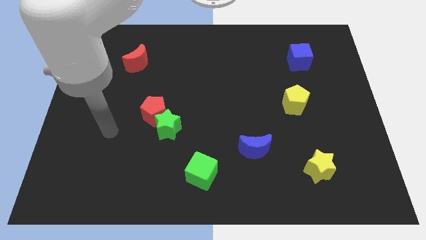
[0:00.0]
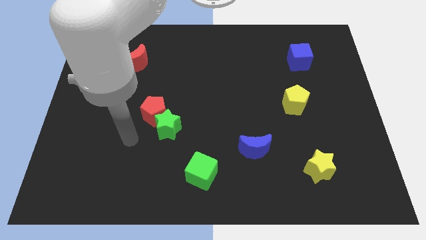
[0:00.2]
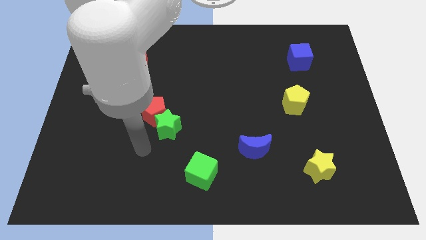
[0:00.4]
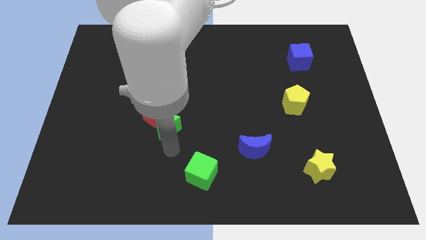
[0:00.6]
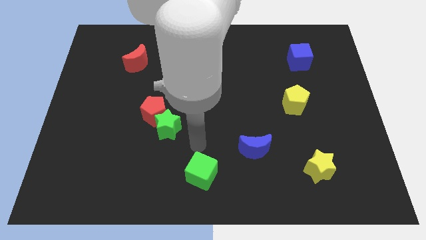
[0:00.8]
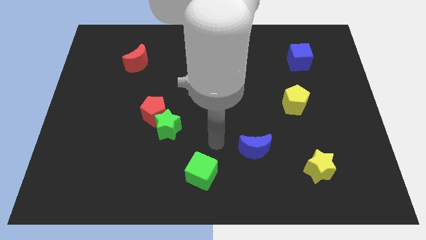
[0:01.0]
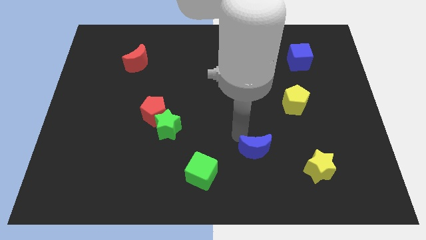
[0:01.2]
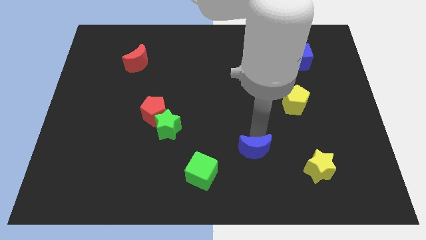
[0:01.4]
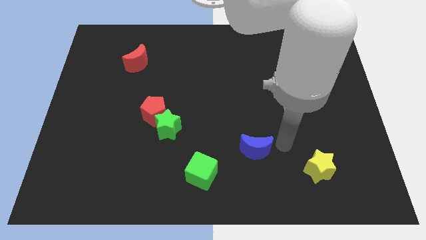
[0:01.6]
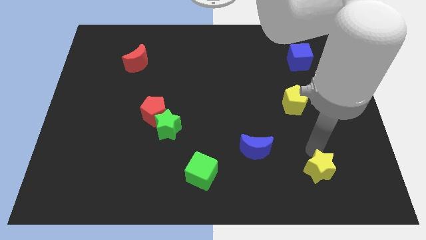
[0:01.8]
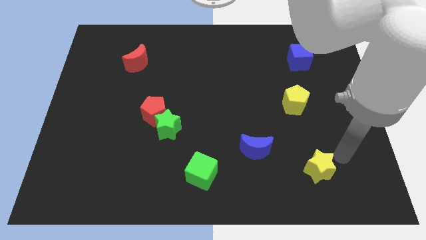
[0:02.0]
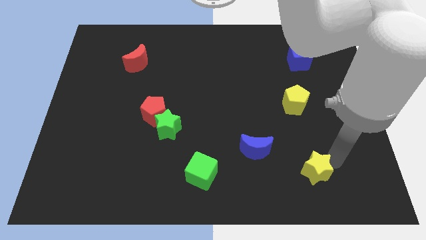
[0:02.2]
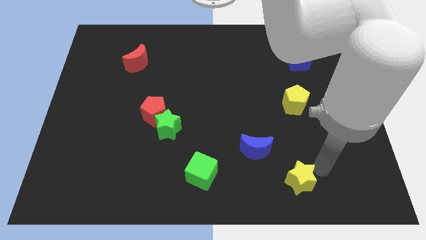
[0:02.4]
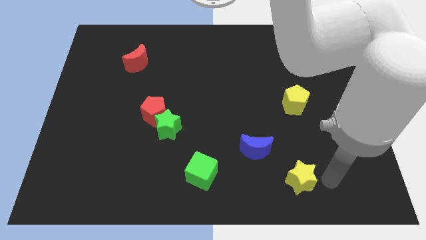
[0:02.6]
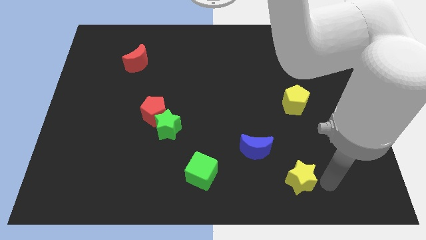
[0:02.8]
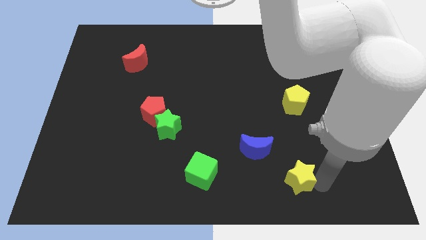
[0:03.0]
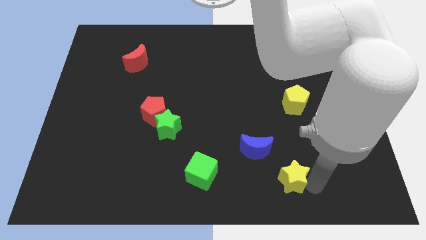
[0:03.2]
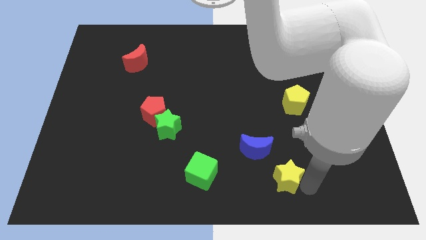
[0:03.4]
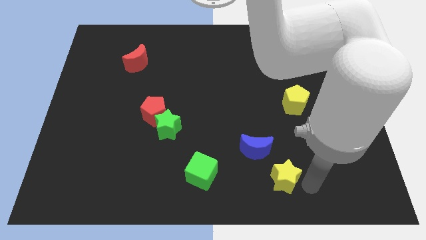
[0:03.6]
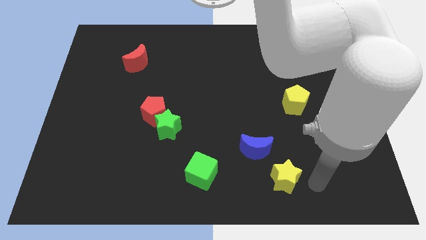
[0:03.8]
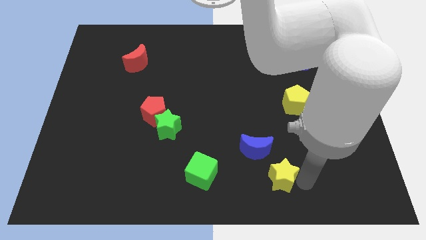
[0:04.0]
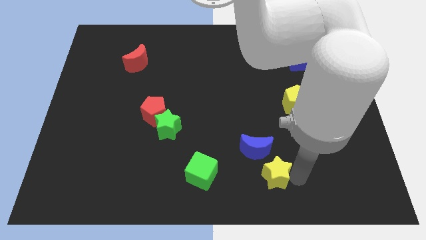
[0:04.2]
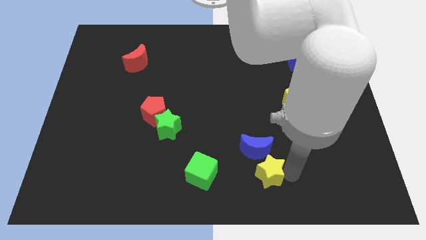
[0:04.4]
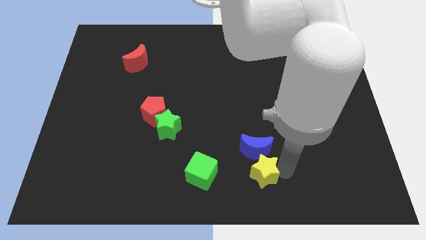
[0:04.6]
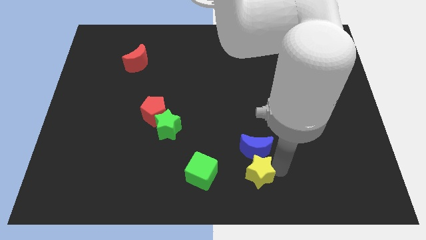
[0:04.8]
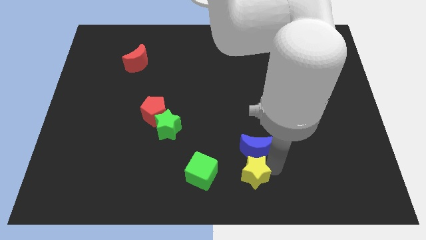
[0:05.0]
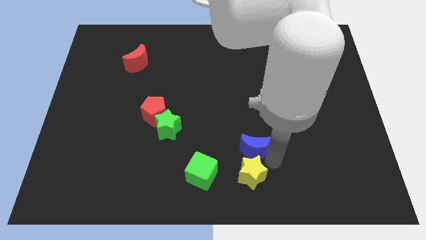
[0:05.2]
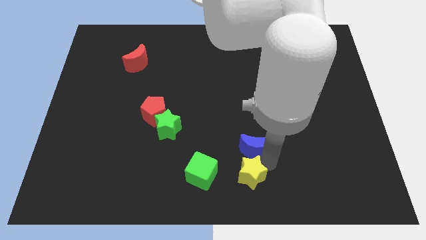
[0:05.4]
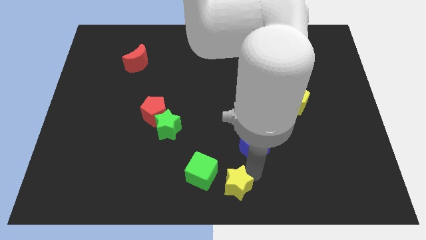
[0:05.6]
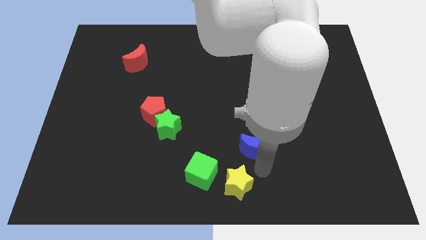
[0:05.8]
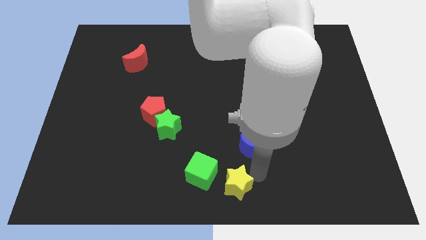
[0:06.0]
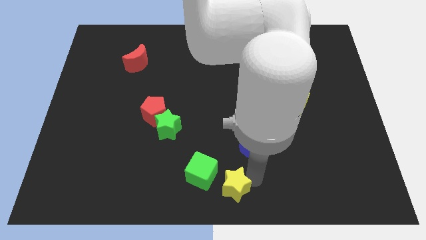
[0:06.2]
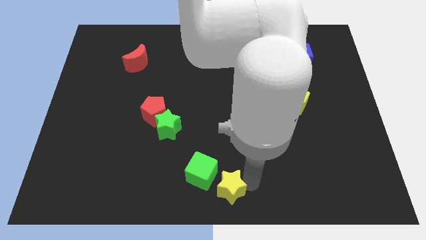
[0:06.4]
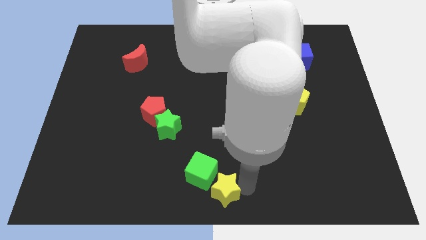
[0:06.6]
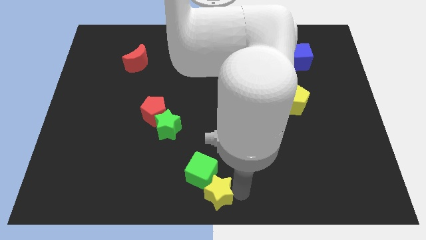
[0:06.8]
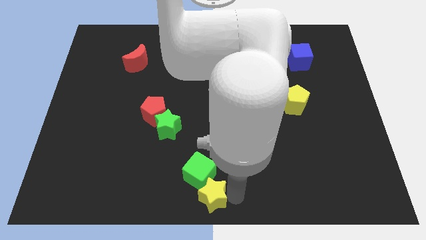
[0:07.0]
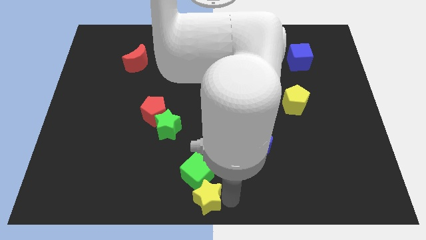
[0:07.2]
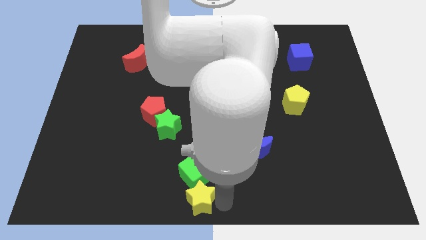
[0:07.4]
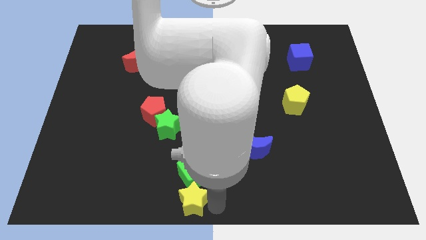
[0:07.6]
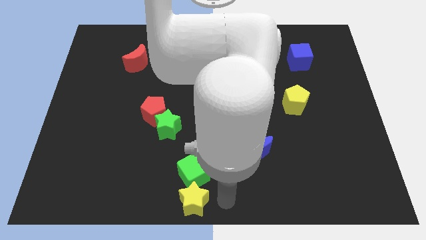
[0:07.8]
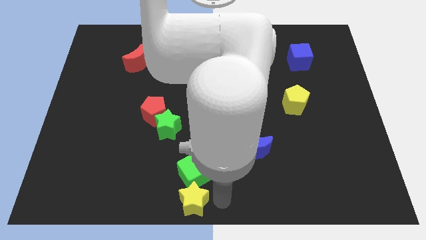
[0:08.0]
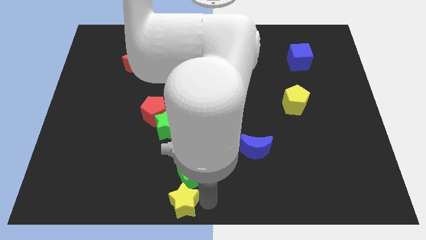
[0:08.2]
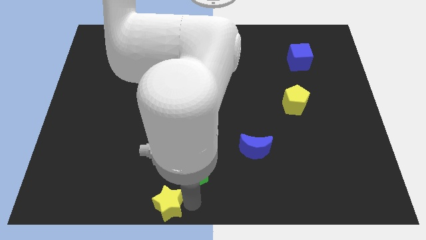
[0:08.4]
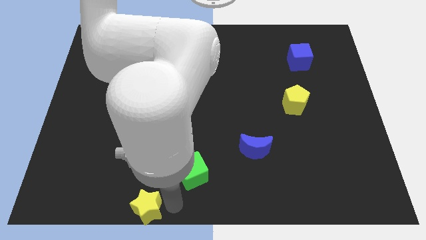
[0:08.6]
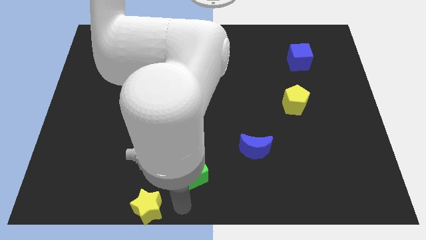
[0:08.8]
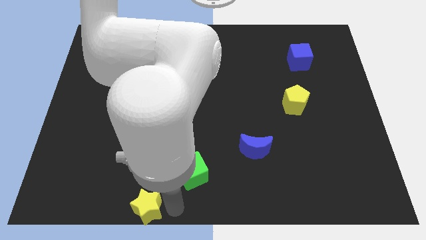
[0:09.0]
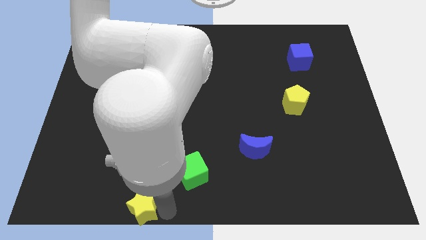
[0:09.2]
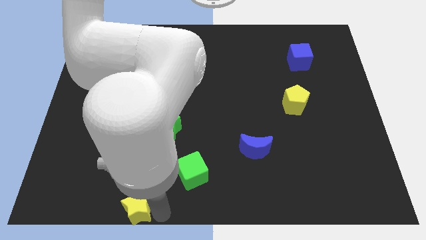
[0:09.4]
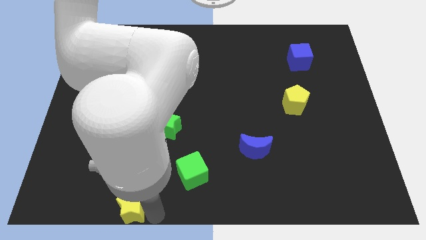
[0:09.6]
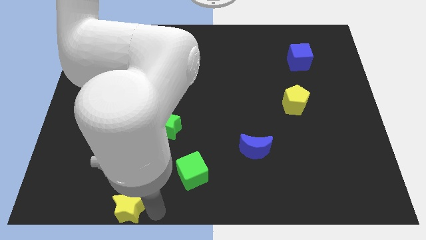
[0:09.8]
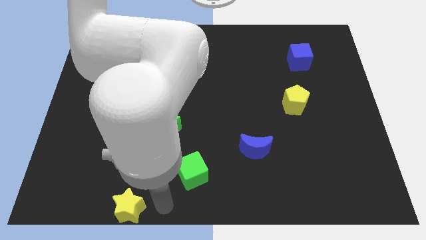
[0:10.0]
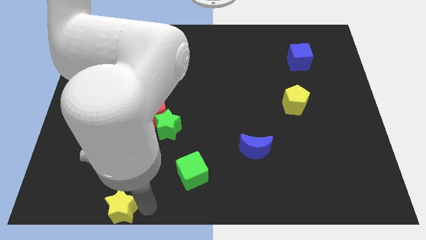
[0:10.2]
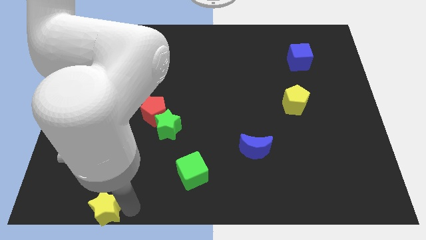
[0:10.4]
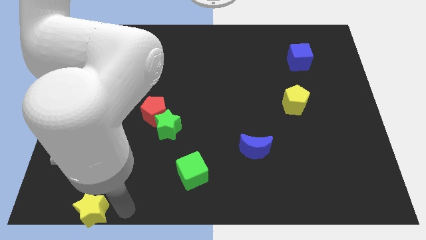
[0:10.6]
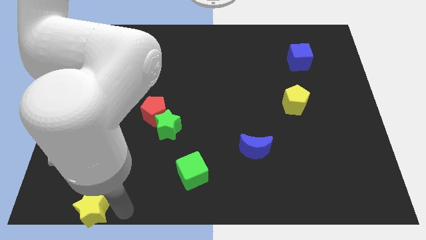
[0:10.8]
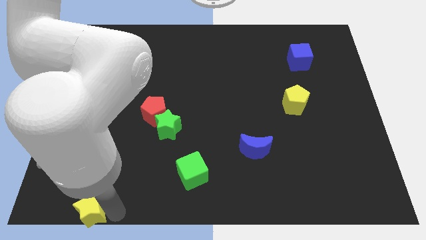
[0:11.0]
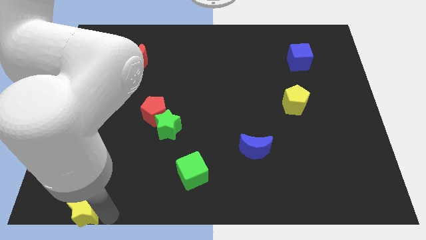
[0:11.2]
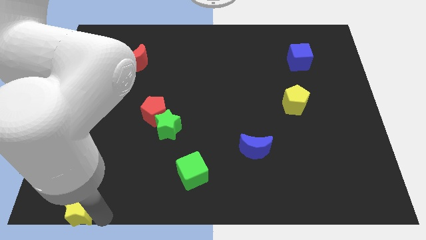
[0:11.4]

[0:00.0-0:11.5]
slide the yellow star to the bottom left
